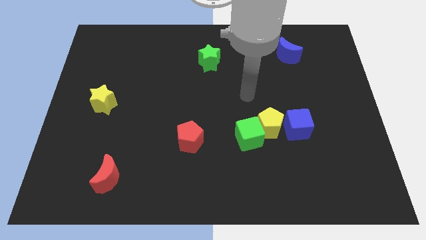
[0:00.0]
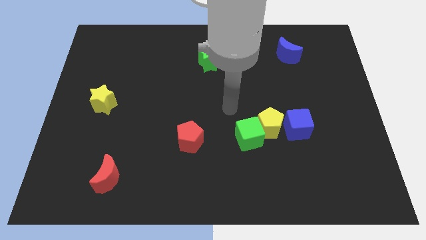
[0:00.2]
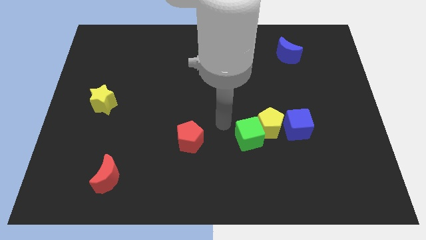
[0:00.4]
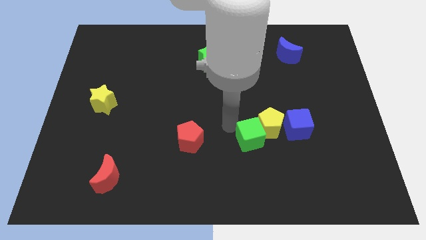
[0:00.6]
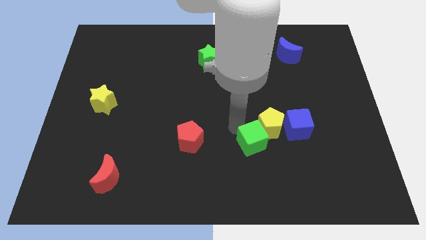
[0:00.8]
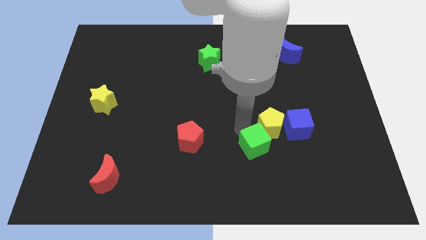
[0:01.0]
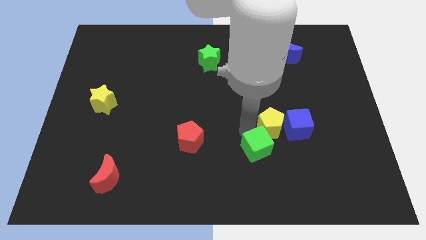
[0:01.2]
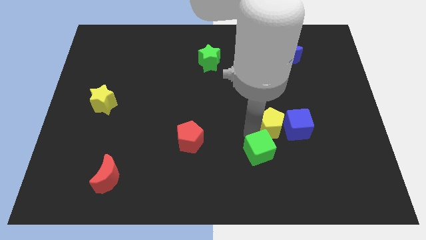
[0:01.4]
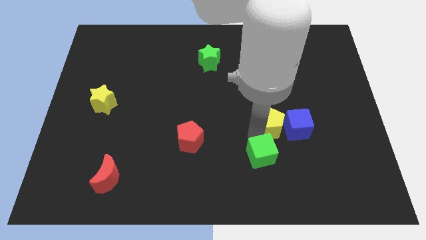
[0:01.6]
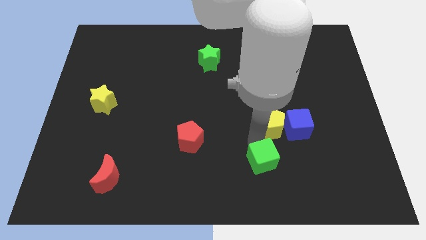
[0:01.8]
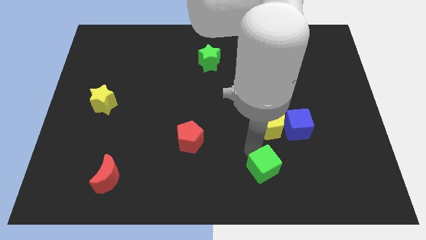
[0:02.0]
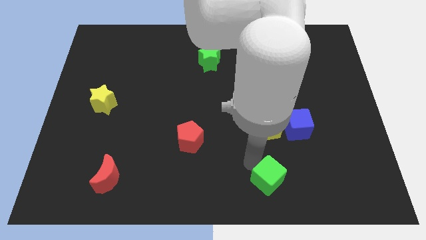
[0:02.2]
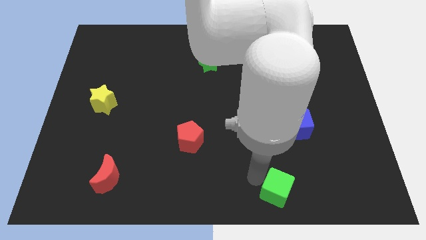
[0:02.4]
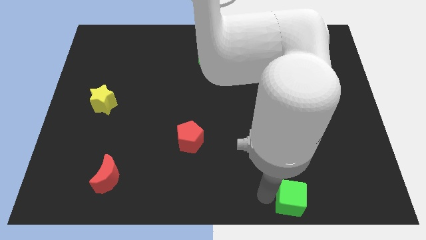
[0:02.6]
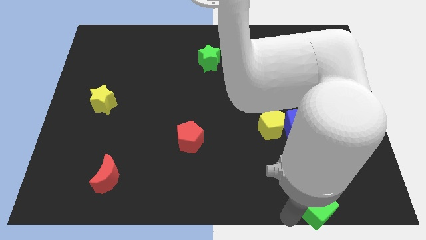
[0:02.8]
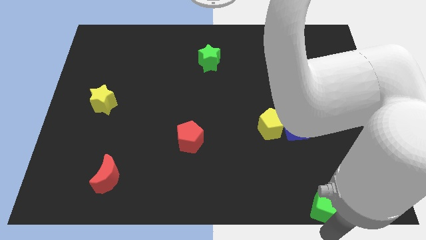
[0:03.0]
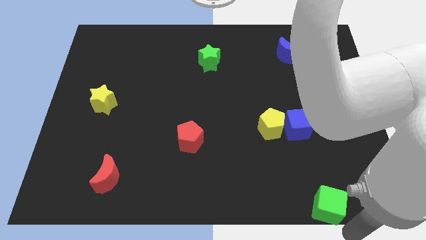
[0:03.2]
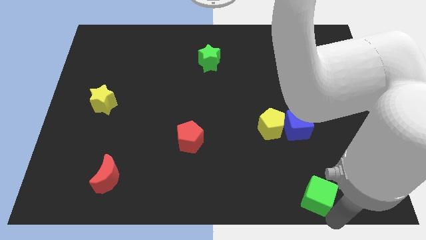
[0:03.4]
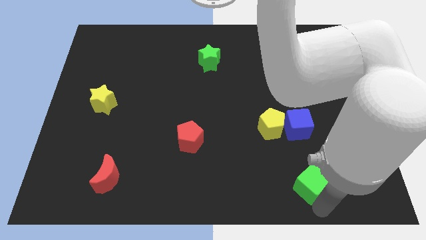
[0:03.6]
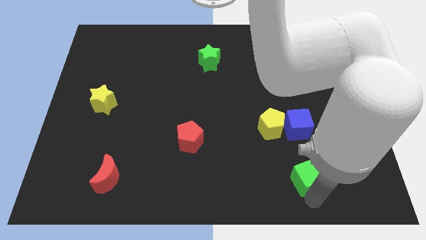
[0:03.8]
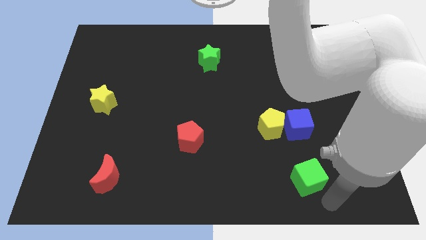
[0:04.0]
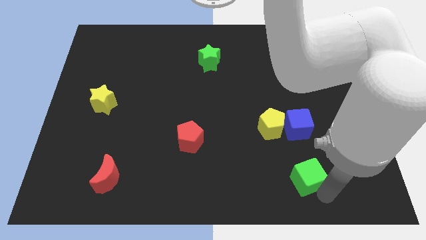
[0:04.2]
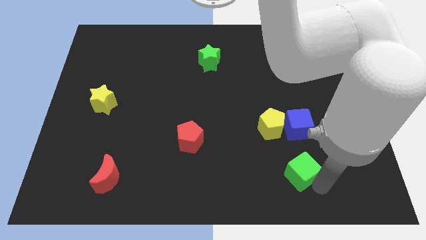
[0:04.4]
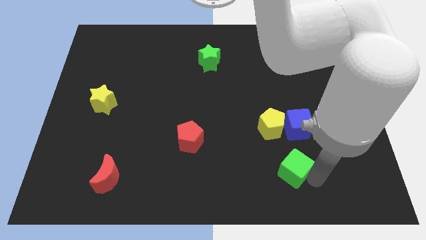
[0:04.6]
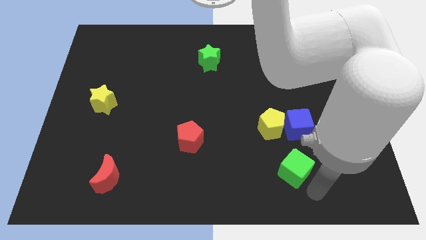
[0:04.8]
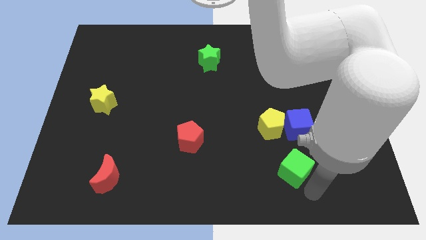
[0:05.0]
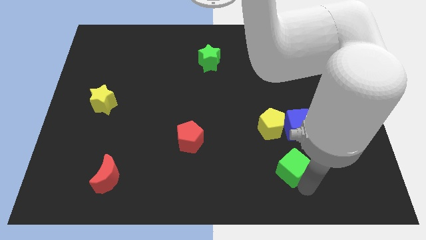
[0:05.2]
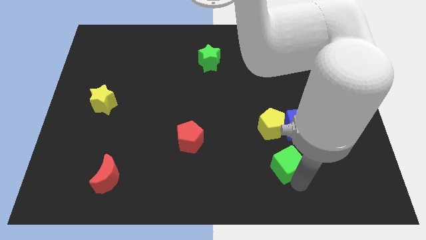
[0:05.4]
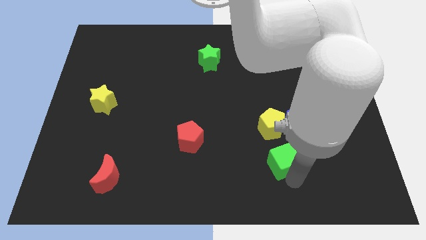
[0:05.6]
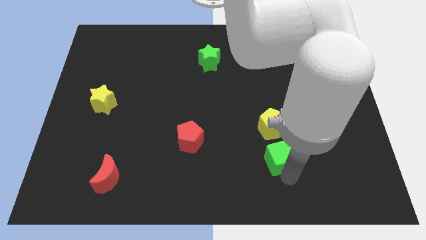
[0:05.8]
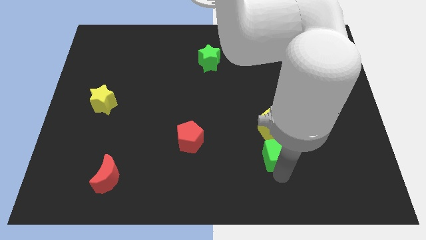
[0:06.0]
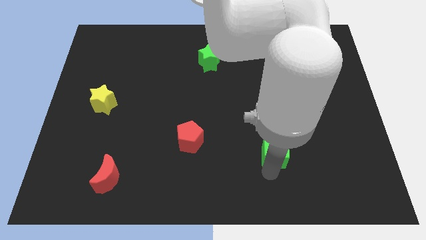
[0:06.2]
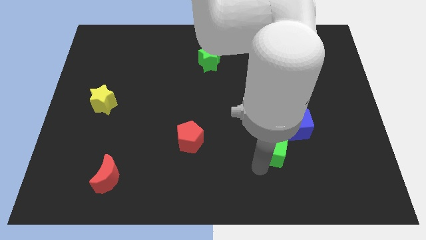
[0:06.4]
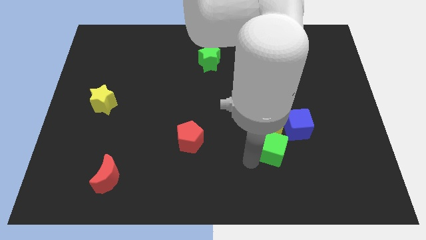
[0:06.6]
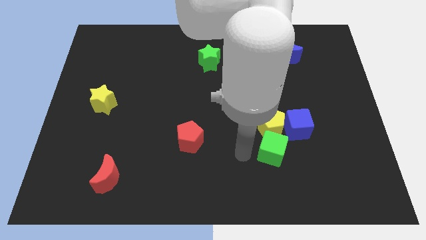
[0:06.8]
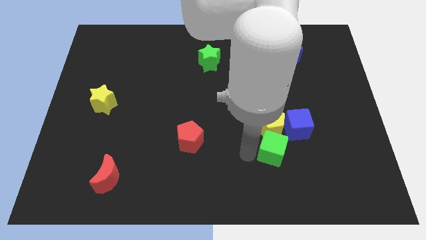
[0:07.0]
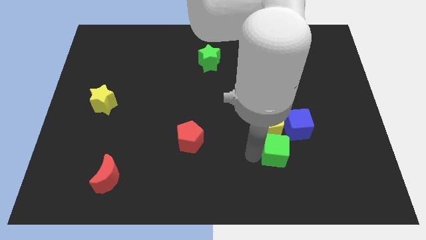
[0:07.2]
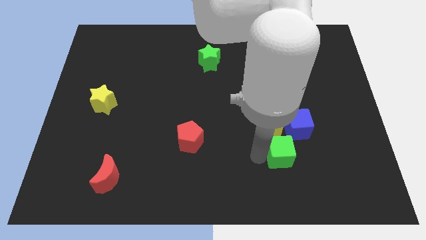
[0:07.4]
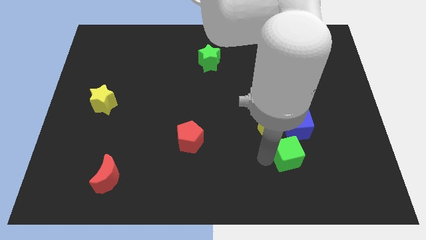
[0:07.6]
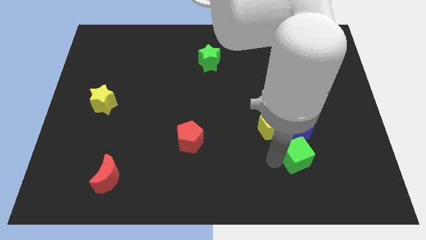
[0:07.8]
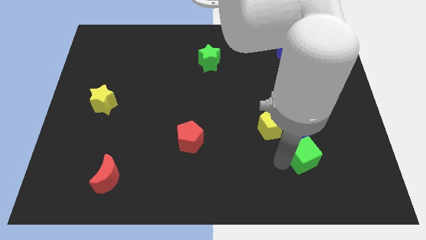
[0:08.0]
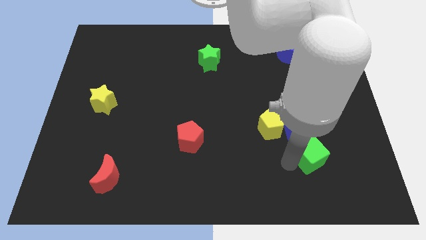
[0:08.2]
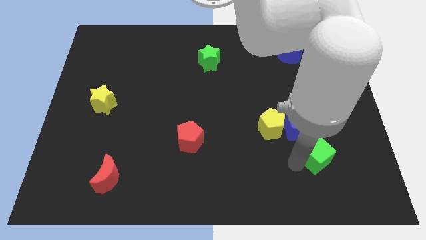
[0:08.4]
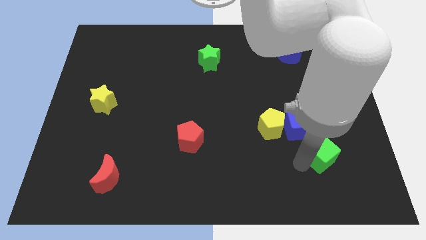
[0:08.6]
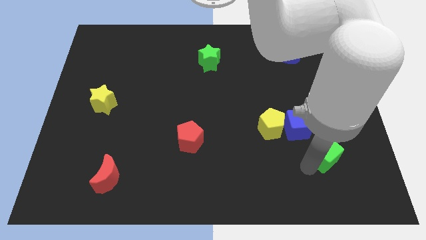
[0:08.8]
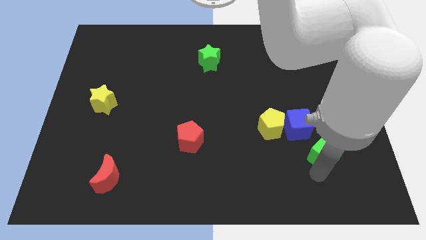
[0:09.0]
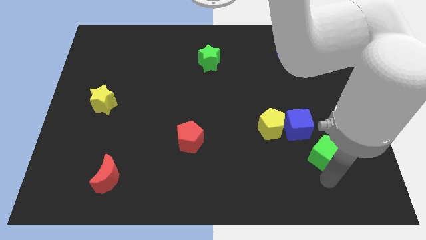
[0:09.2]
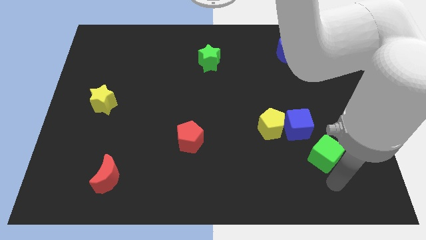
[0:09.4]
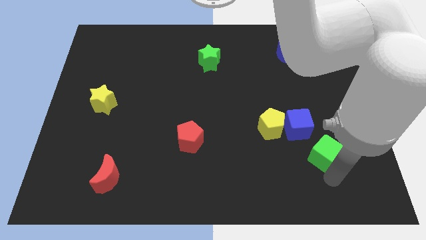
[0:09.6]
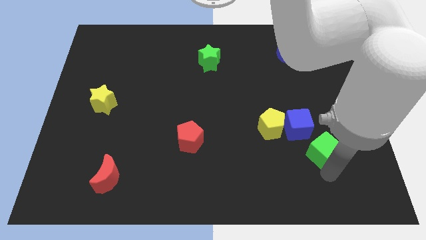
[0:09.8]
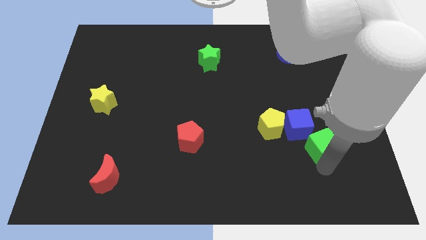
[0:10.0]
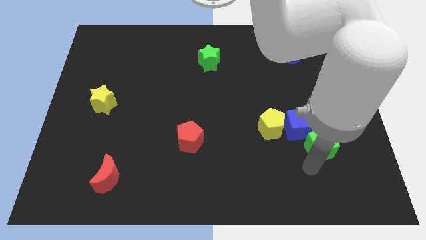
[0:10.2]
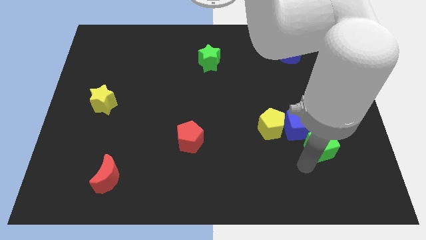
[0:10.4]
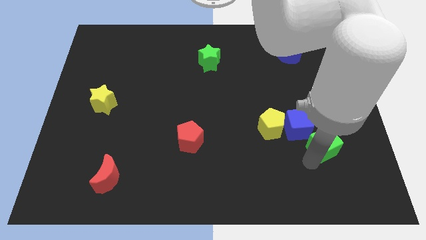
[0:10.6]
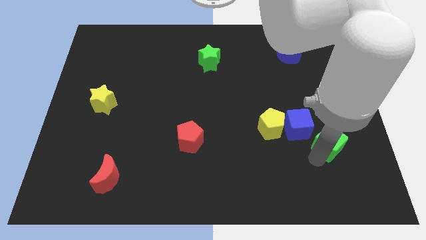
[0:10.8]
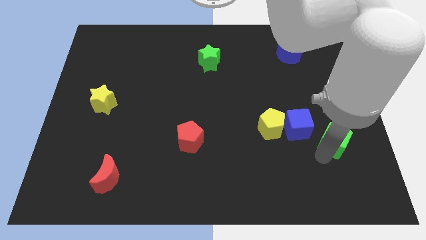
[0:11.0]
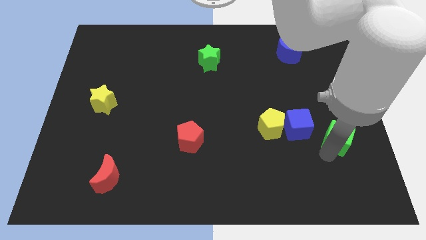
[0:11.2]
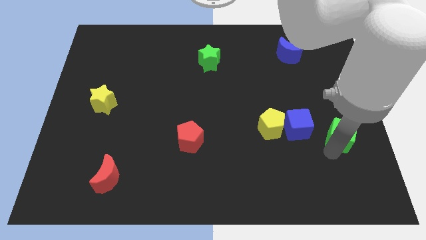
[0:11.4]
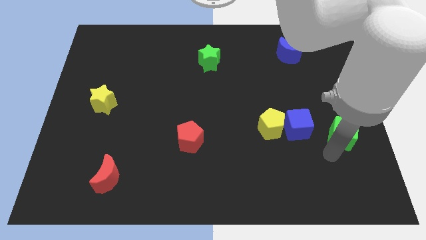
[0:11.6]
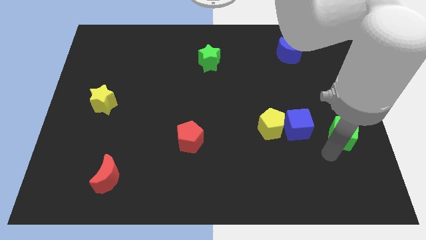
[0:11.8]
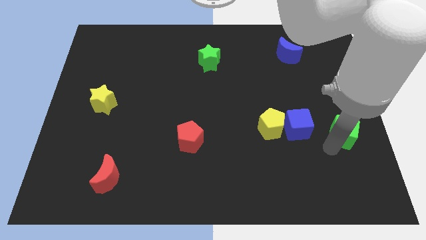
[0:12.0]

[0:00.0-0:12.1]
push the green cube to the center right
